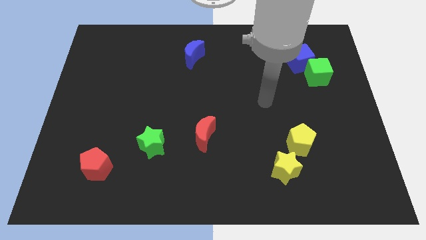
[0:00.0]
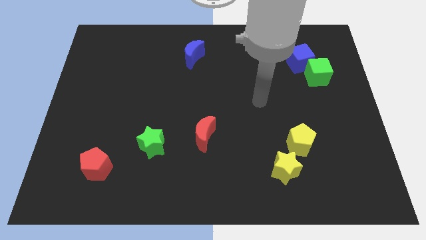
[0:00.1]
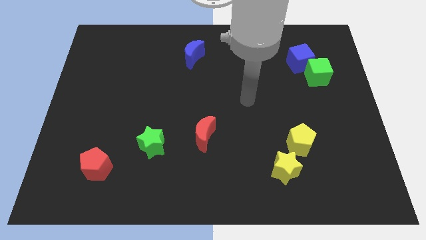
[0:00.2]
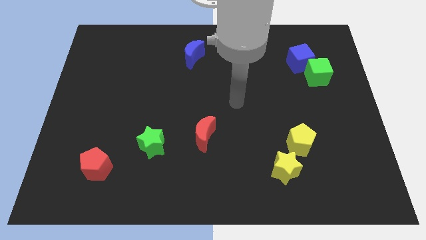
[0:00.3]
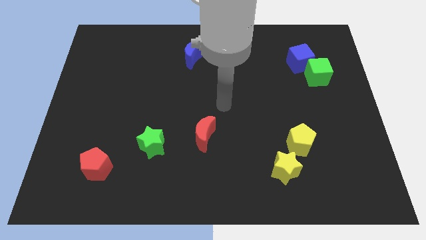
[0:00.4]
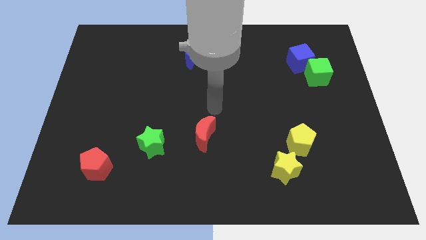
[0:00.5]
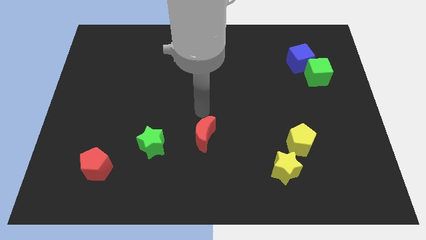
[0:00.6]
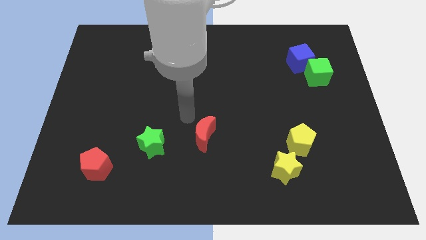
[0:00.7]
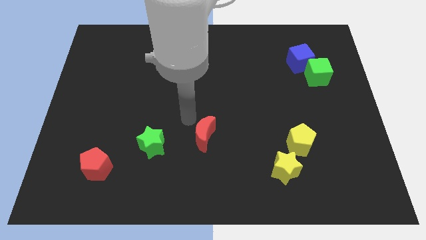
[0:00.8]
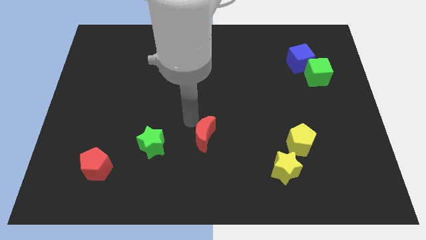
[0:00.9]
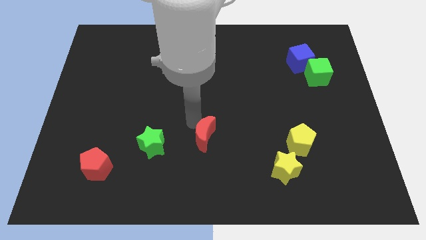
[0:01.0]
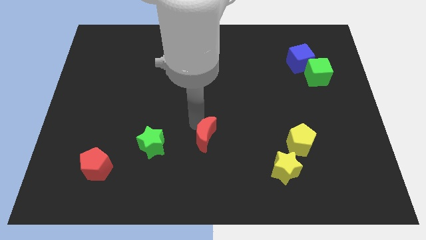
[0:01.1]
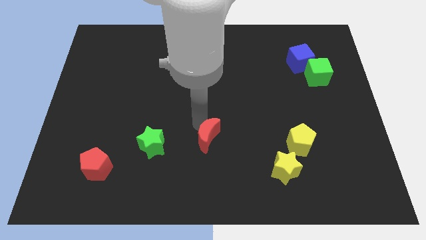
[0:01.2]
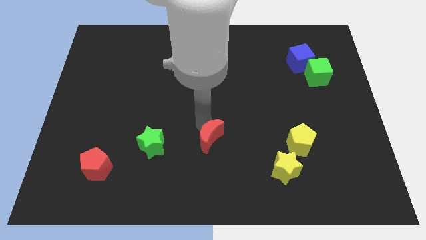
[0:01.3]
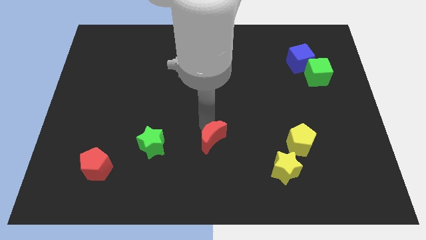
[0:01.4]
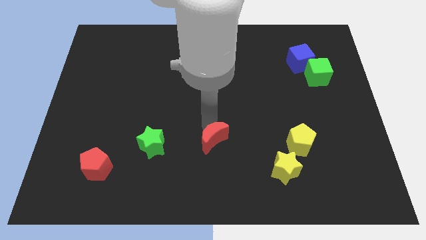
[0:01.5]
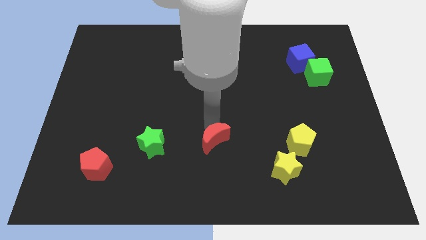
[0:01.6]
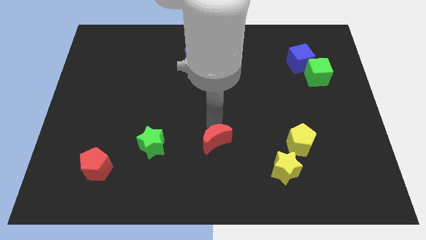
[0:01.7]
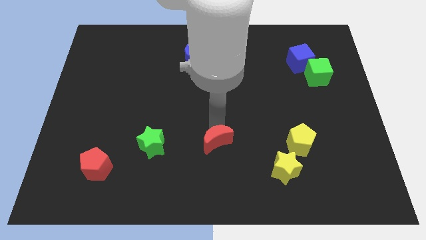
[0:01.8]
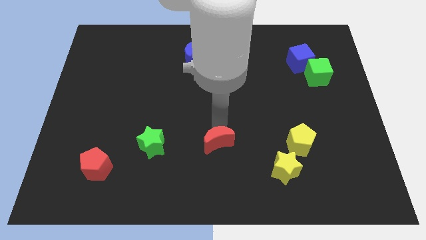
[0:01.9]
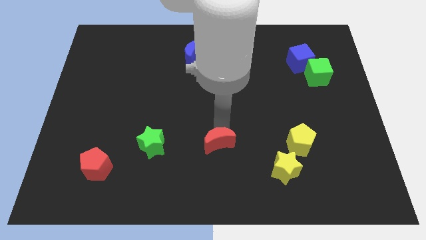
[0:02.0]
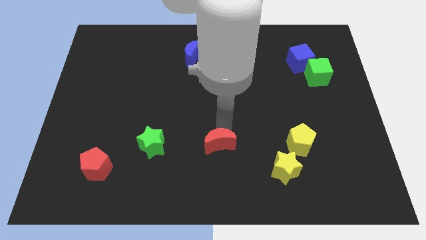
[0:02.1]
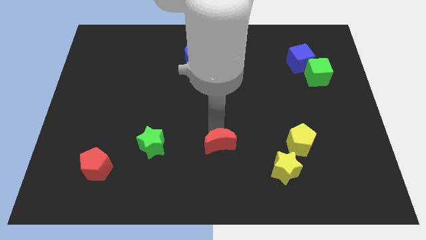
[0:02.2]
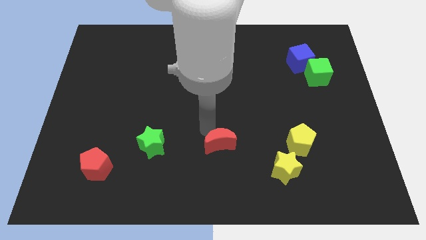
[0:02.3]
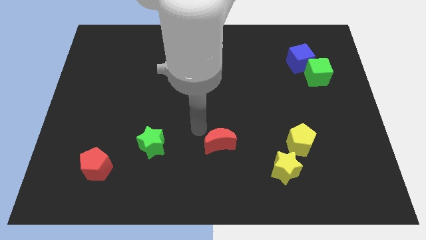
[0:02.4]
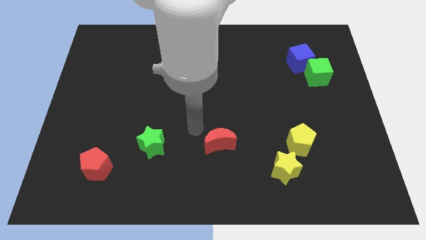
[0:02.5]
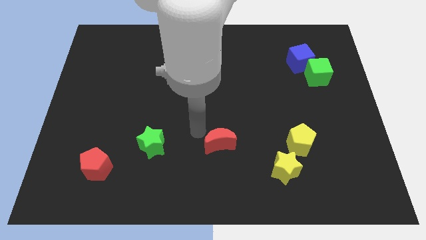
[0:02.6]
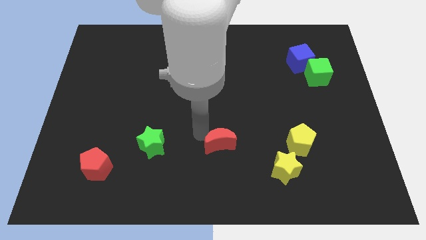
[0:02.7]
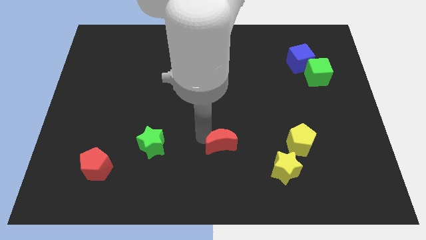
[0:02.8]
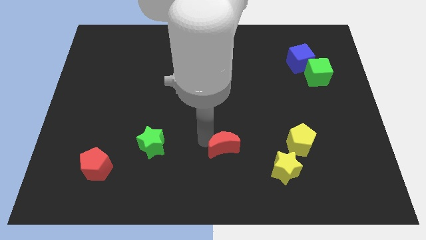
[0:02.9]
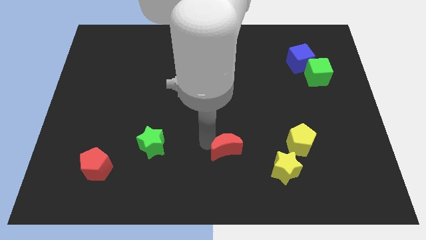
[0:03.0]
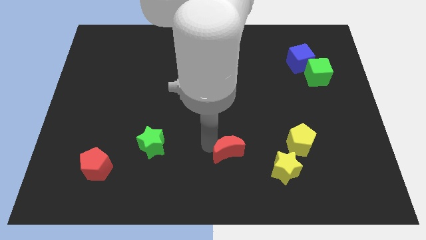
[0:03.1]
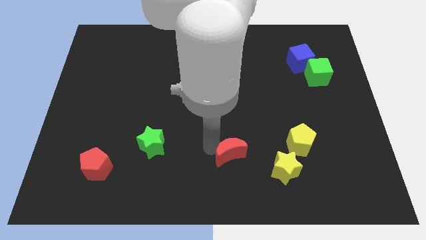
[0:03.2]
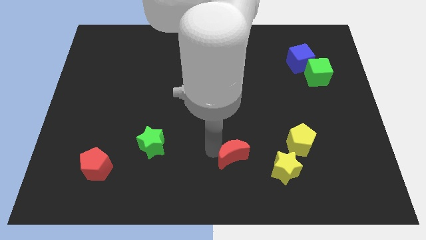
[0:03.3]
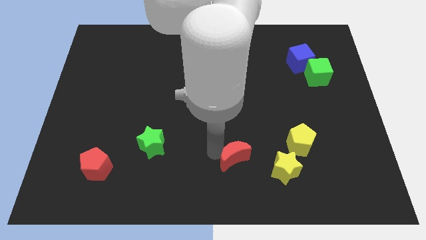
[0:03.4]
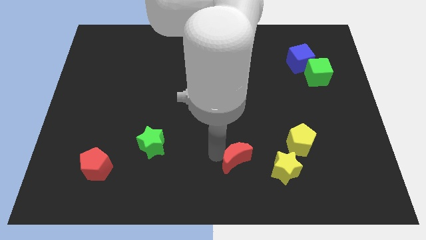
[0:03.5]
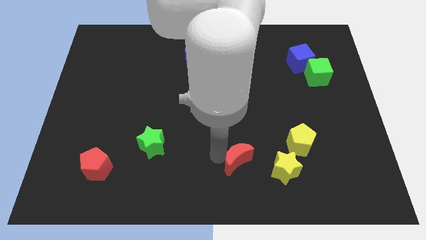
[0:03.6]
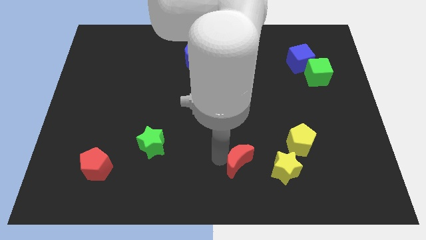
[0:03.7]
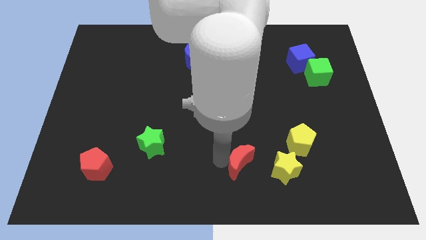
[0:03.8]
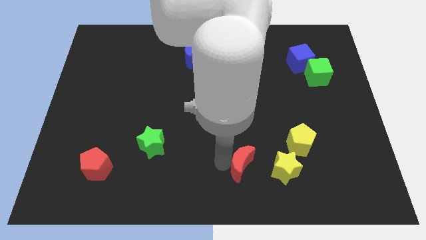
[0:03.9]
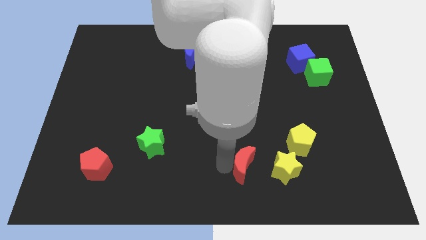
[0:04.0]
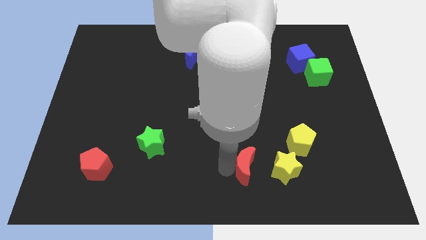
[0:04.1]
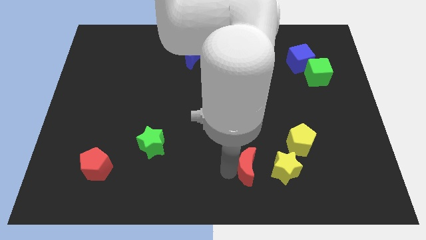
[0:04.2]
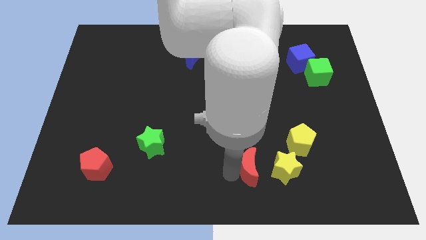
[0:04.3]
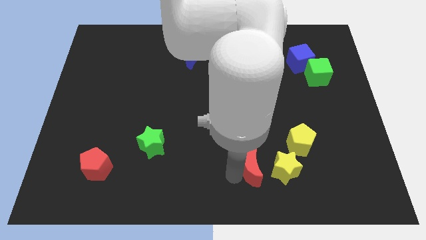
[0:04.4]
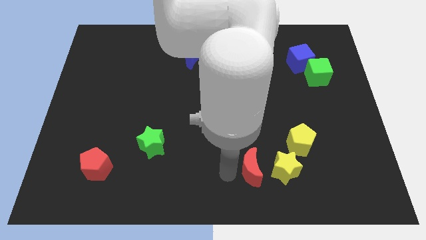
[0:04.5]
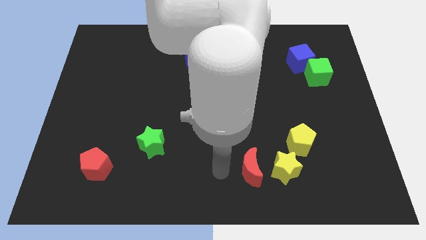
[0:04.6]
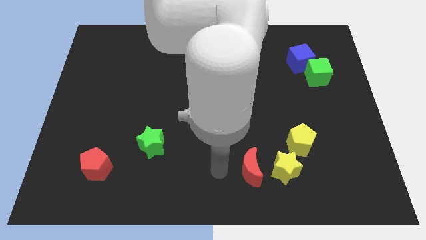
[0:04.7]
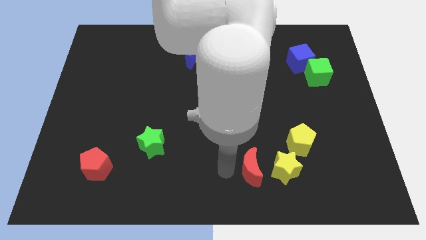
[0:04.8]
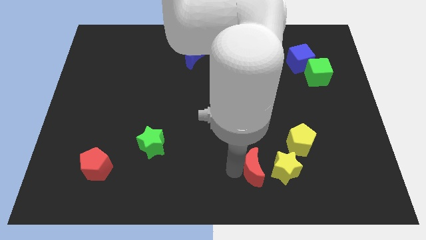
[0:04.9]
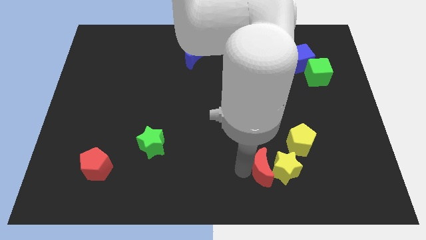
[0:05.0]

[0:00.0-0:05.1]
slide the red moon close to the yellow star

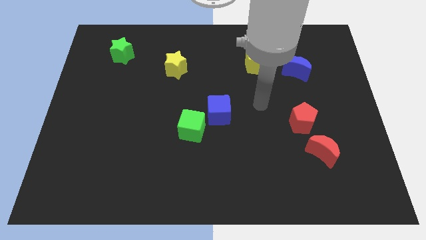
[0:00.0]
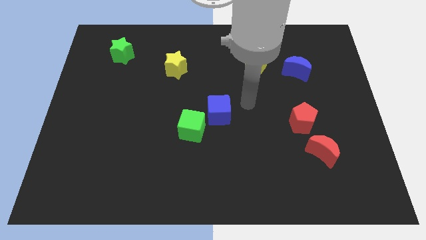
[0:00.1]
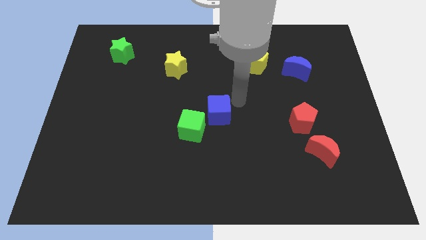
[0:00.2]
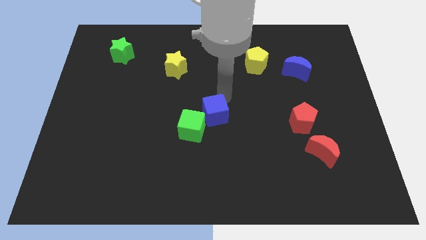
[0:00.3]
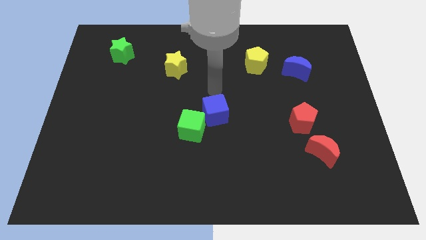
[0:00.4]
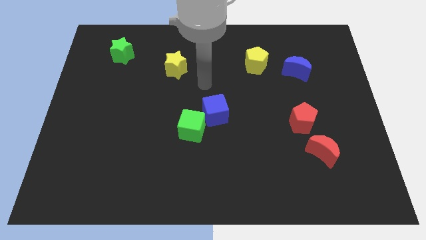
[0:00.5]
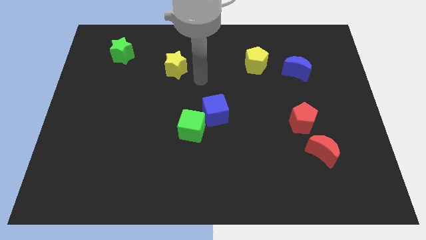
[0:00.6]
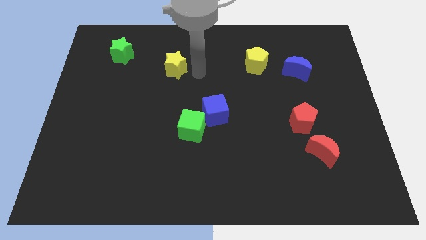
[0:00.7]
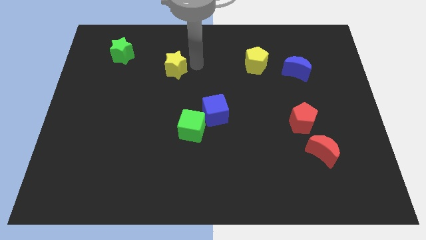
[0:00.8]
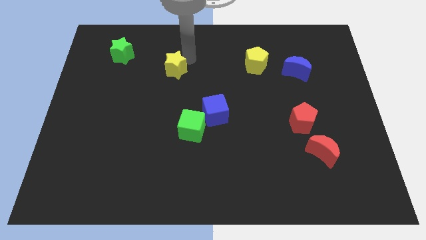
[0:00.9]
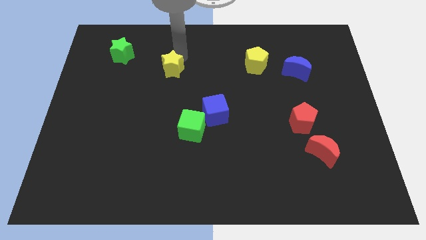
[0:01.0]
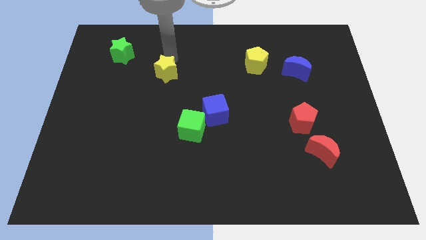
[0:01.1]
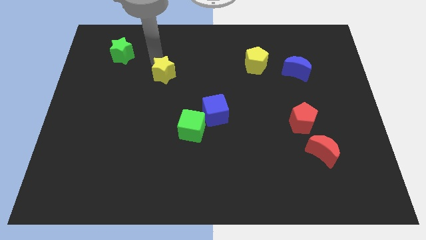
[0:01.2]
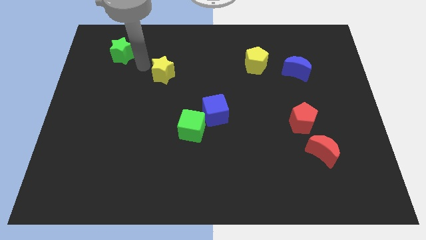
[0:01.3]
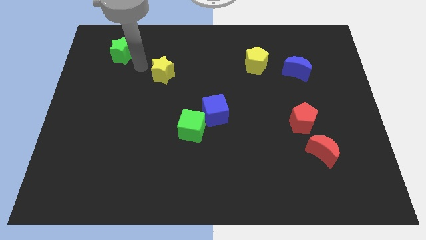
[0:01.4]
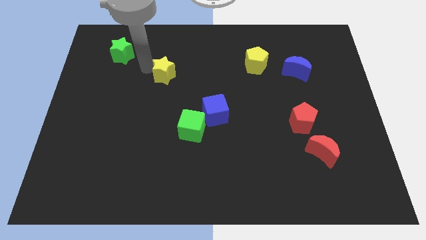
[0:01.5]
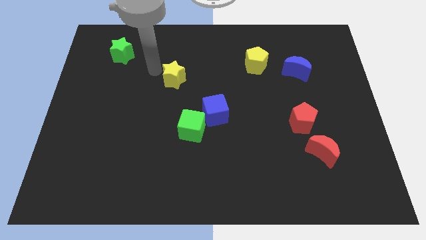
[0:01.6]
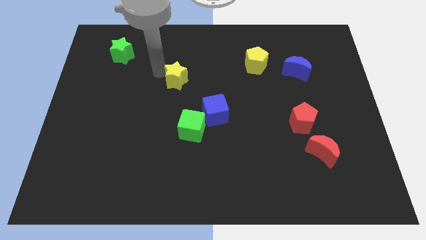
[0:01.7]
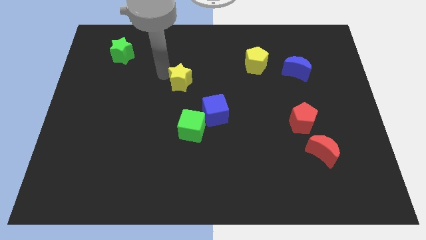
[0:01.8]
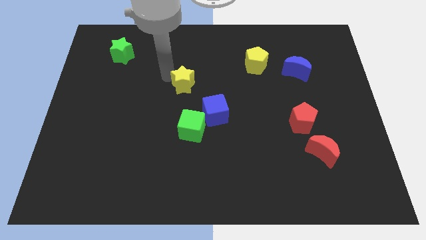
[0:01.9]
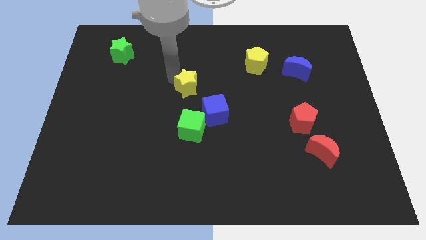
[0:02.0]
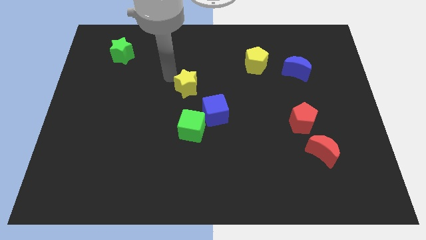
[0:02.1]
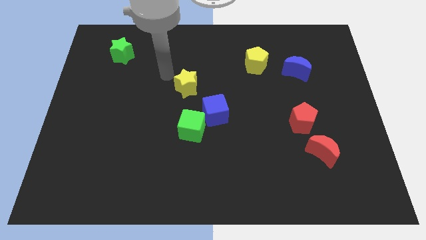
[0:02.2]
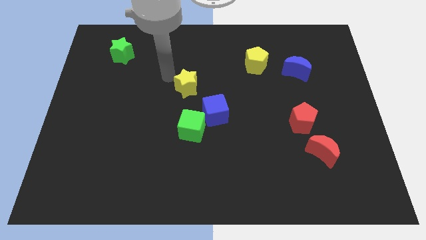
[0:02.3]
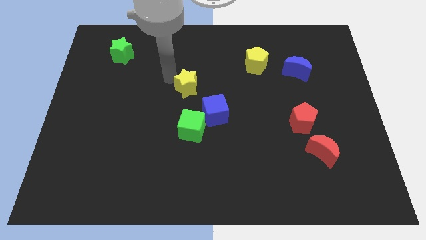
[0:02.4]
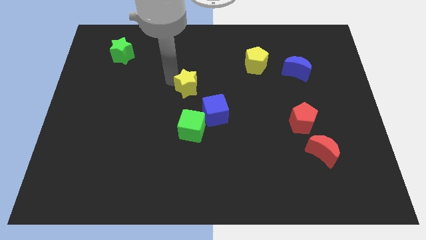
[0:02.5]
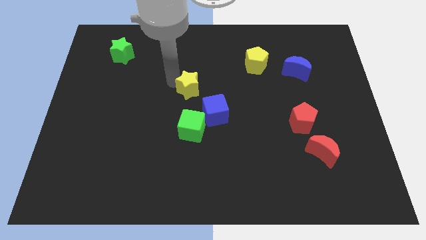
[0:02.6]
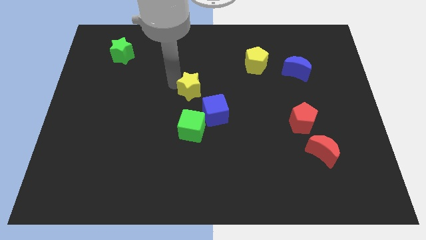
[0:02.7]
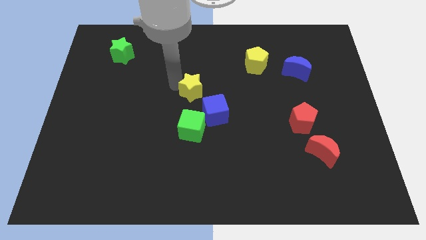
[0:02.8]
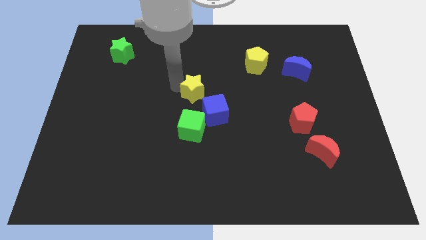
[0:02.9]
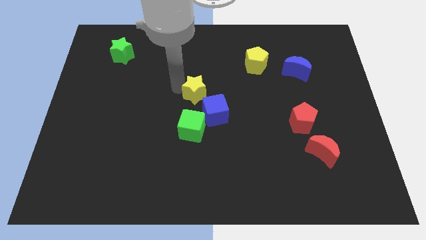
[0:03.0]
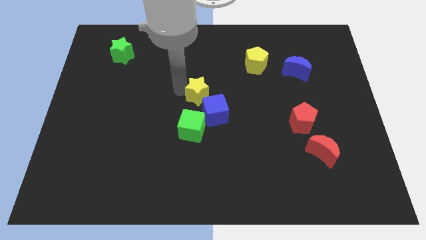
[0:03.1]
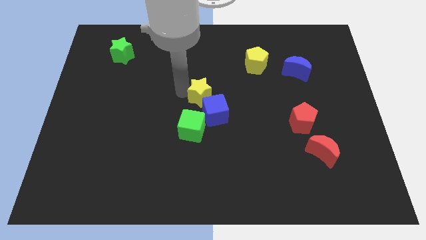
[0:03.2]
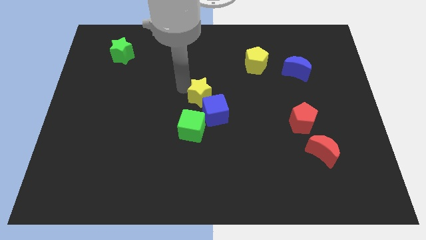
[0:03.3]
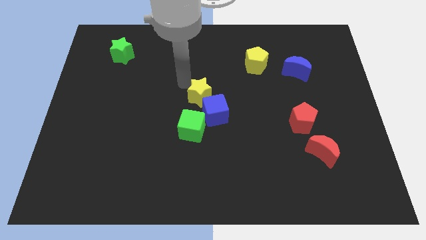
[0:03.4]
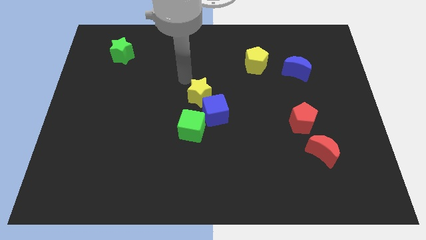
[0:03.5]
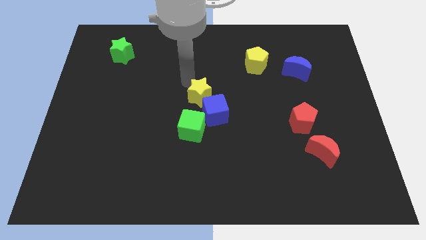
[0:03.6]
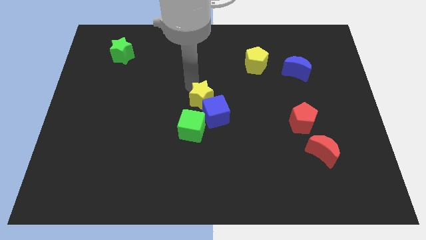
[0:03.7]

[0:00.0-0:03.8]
put the yellow star close to the blue cube
